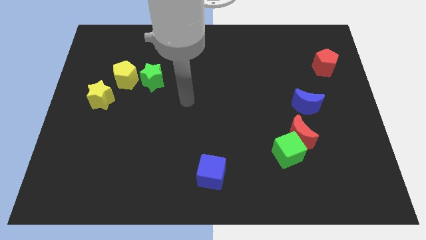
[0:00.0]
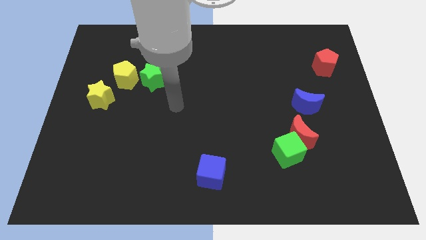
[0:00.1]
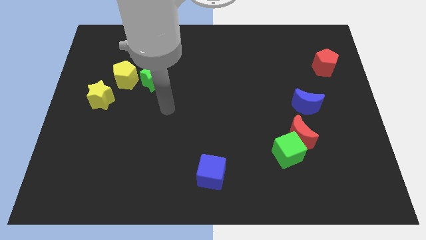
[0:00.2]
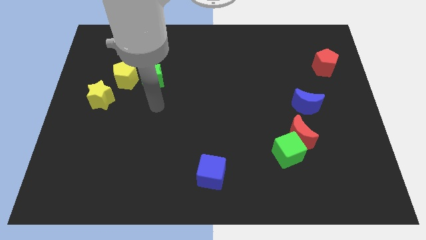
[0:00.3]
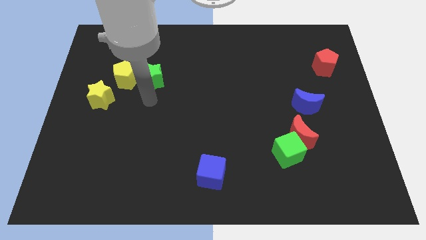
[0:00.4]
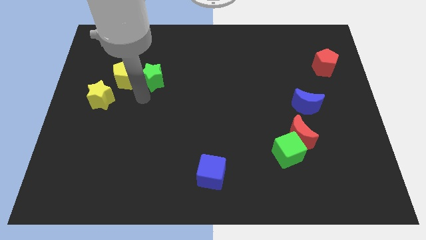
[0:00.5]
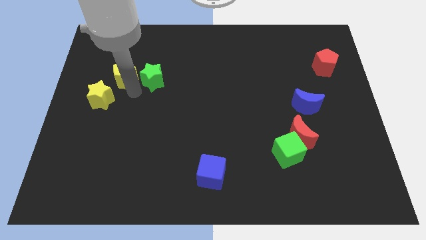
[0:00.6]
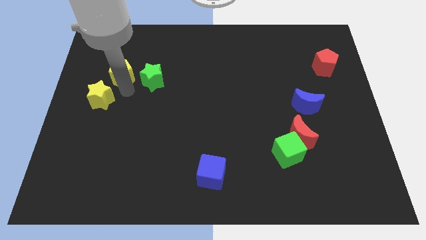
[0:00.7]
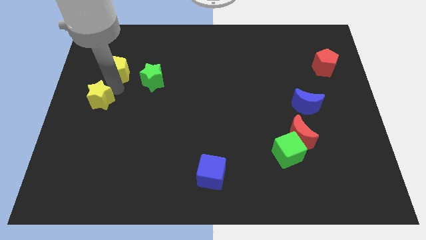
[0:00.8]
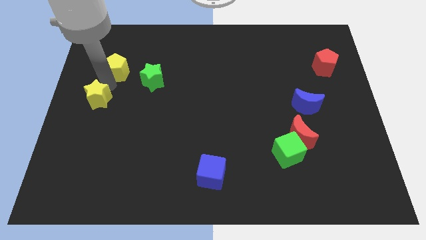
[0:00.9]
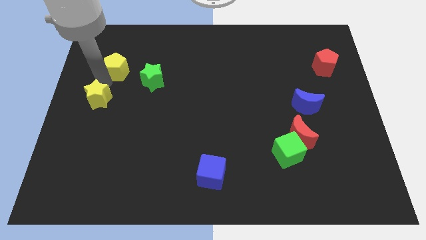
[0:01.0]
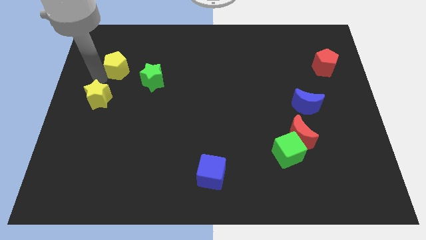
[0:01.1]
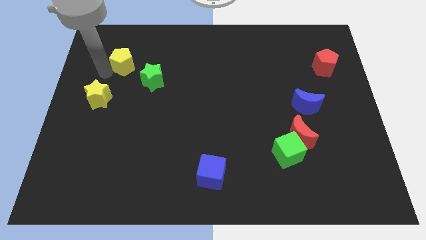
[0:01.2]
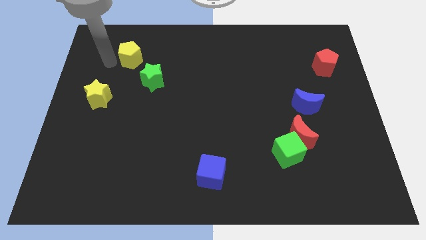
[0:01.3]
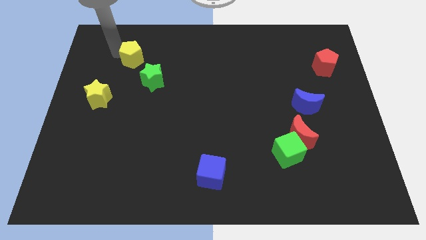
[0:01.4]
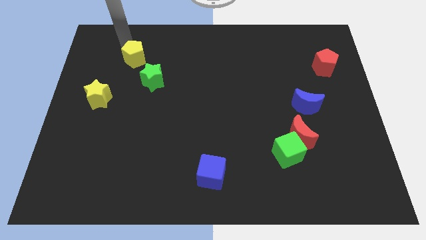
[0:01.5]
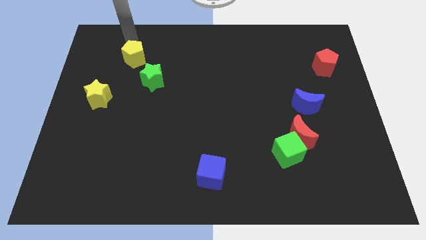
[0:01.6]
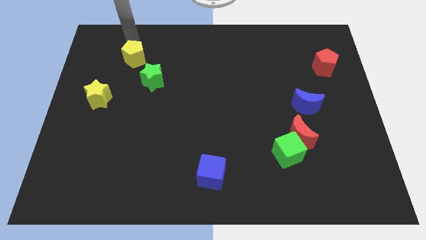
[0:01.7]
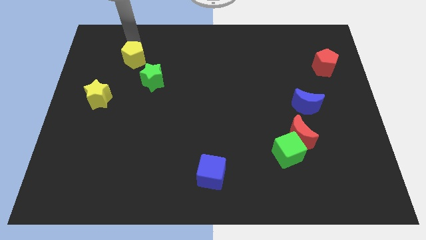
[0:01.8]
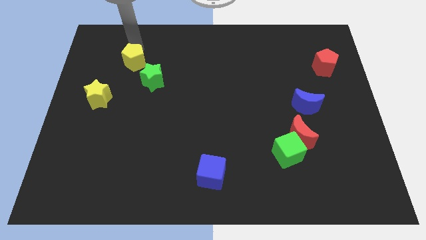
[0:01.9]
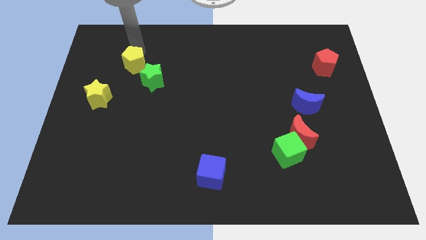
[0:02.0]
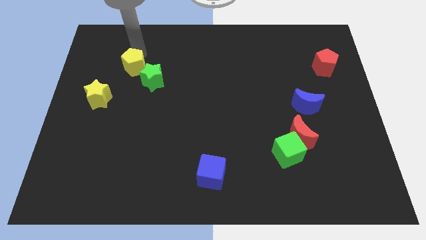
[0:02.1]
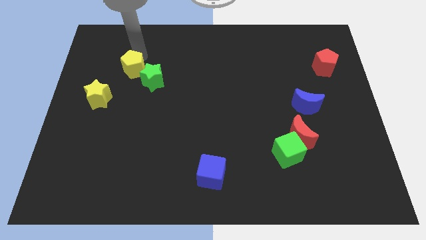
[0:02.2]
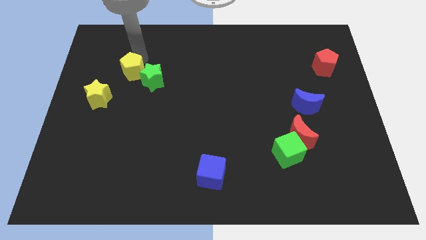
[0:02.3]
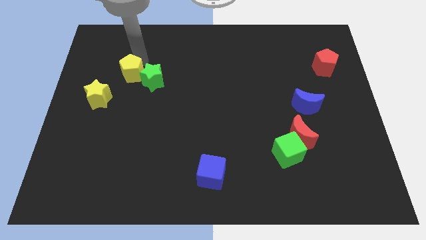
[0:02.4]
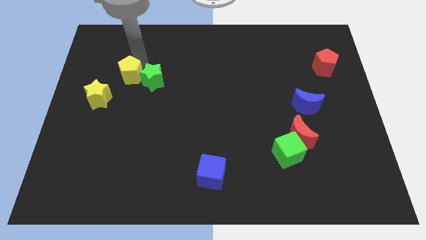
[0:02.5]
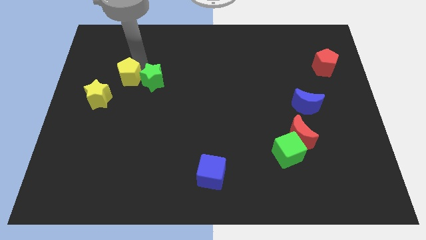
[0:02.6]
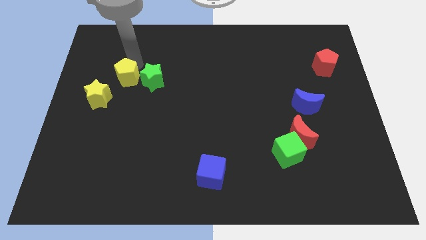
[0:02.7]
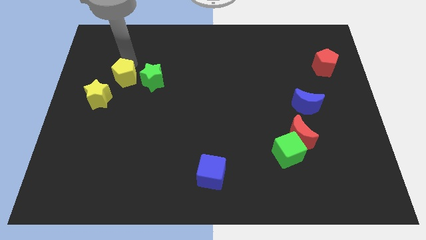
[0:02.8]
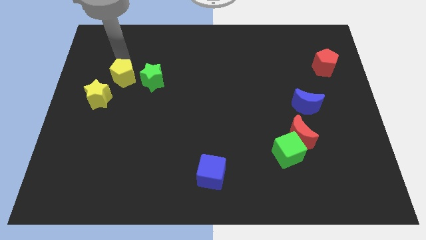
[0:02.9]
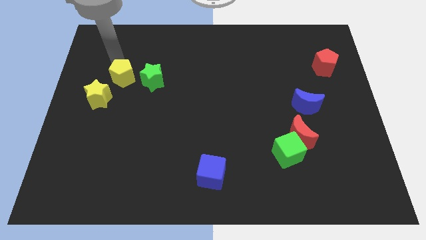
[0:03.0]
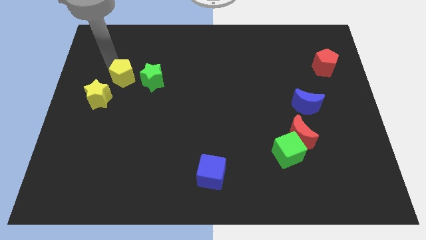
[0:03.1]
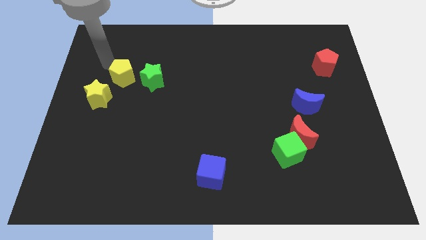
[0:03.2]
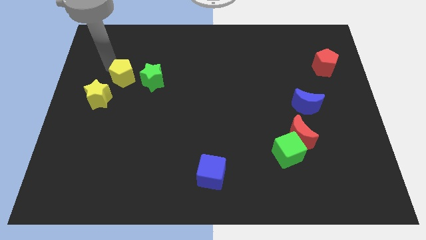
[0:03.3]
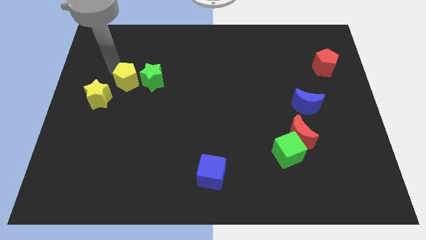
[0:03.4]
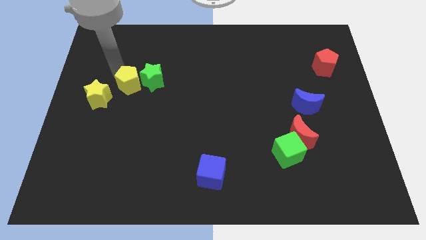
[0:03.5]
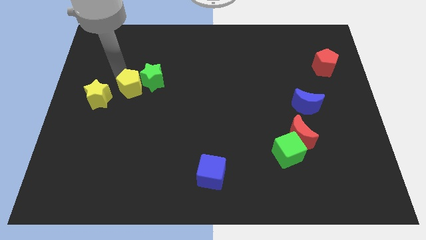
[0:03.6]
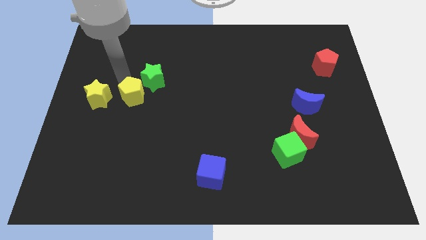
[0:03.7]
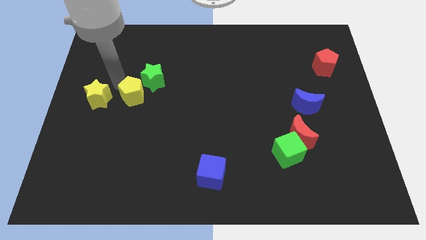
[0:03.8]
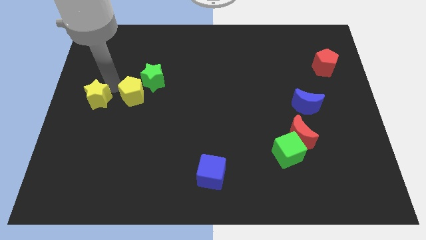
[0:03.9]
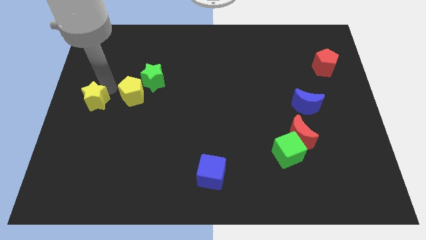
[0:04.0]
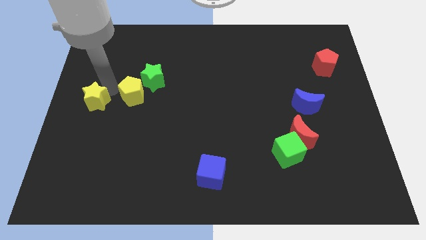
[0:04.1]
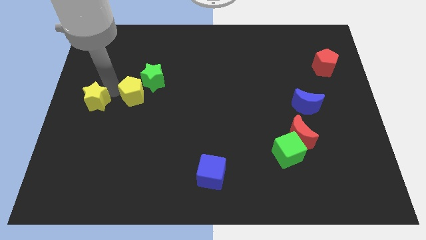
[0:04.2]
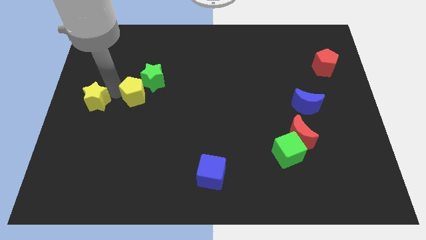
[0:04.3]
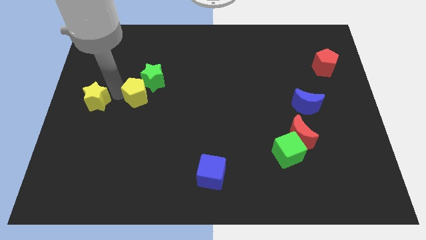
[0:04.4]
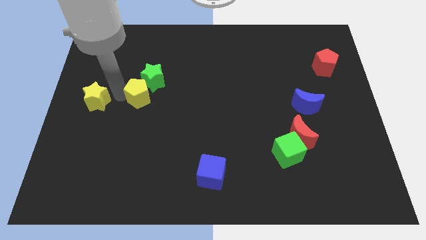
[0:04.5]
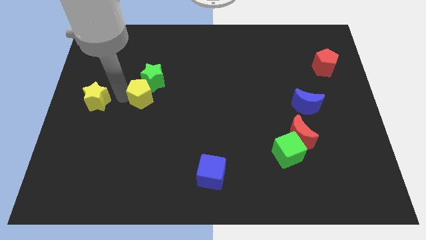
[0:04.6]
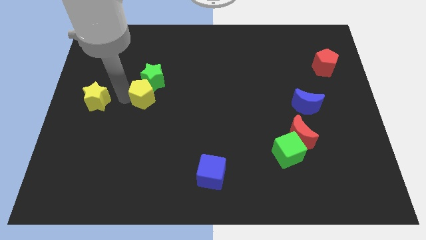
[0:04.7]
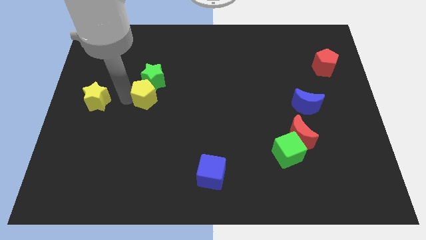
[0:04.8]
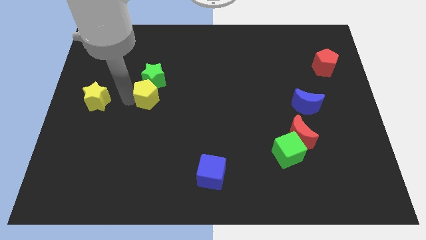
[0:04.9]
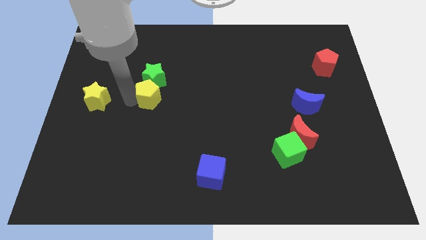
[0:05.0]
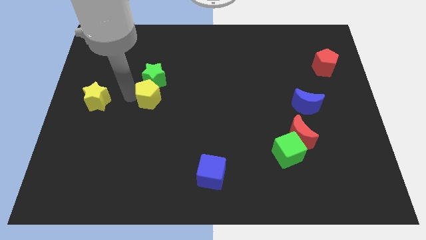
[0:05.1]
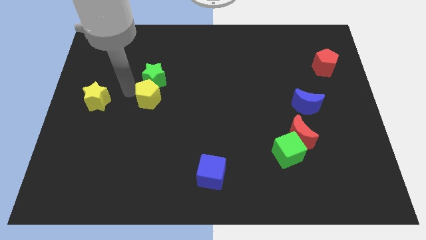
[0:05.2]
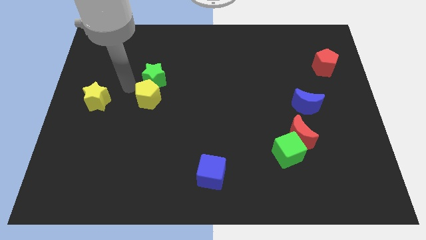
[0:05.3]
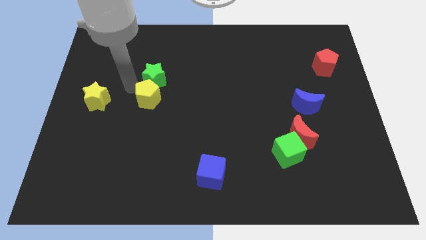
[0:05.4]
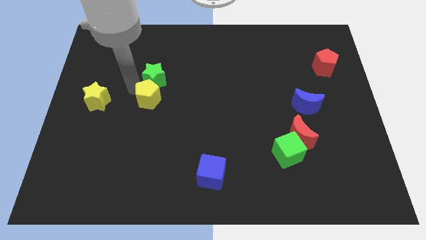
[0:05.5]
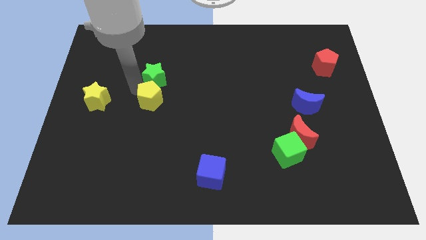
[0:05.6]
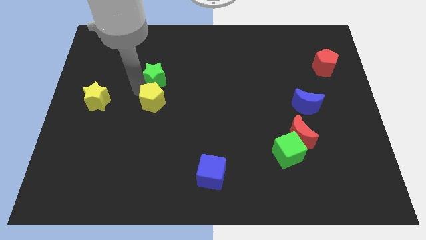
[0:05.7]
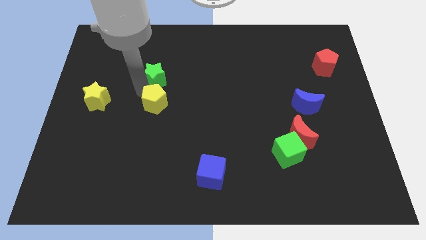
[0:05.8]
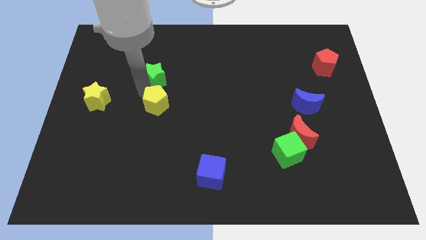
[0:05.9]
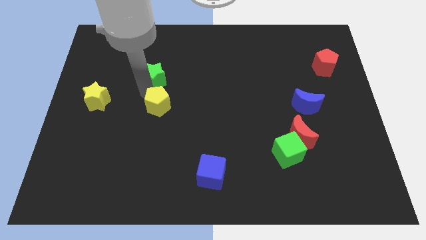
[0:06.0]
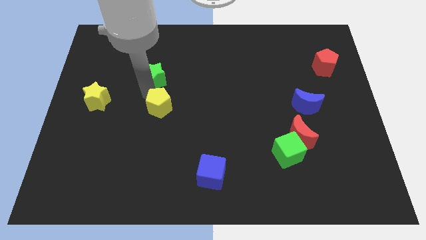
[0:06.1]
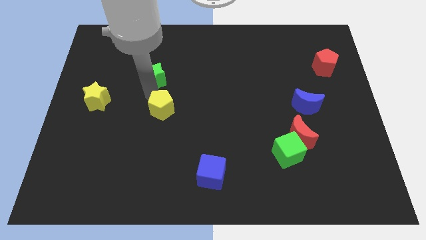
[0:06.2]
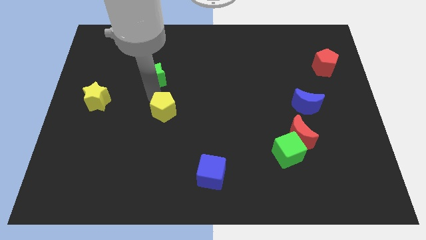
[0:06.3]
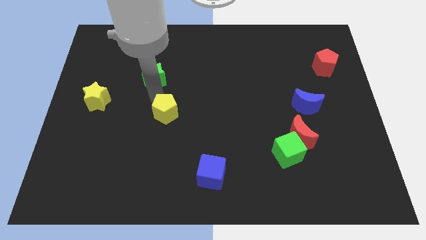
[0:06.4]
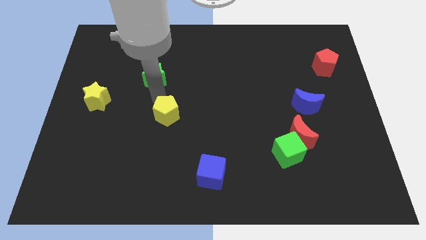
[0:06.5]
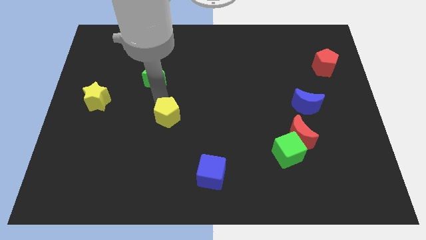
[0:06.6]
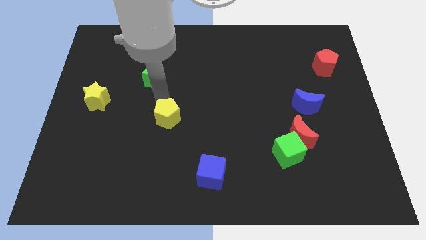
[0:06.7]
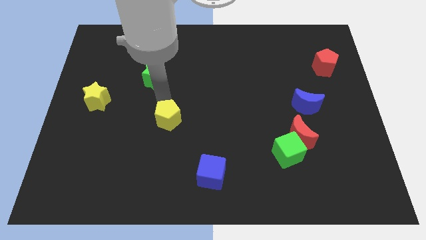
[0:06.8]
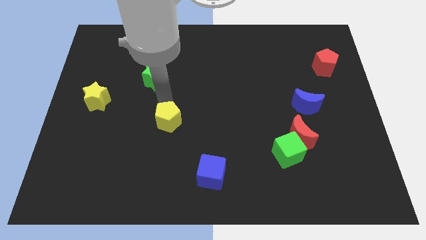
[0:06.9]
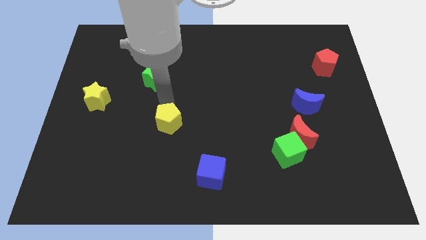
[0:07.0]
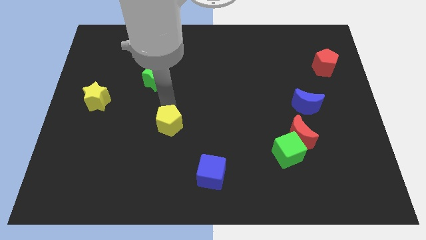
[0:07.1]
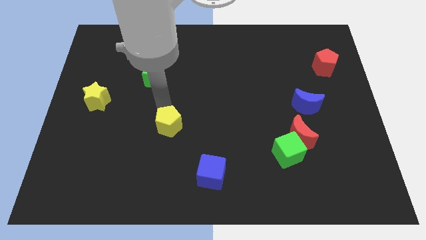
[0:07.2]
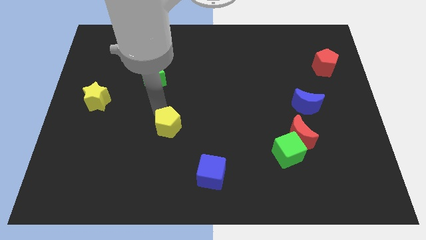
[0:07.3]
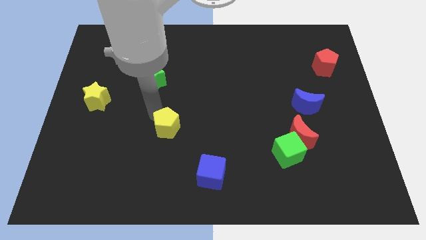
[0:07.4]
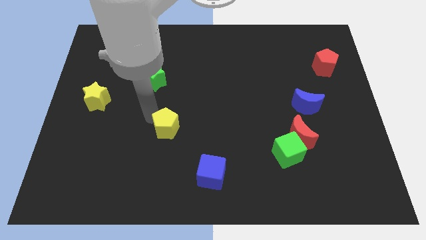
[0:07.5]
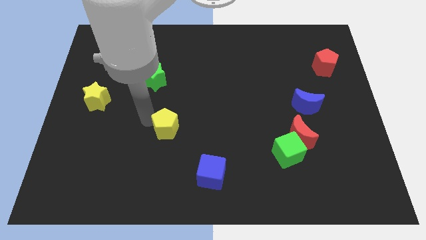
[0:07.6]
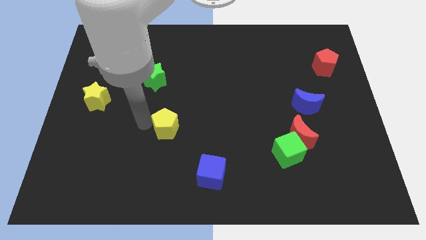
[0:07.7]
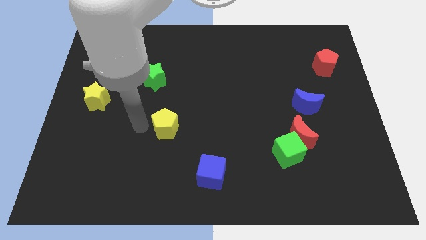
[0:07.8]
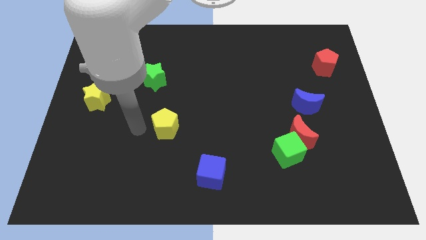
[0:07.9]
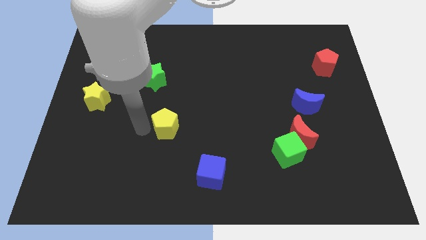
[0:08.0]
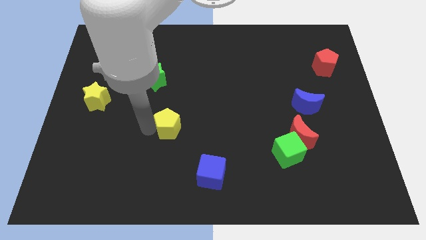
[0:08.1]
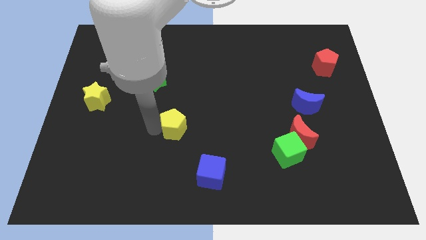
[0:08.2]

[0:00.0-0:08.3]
move the yellow pentagon down and to the right
